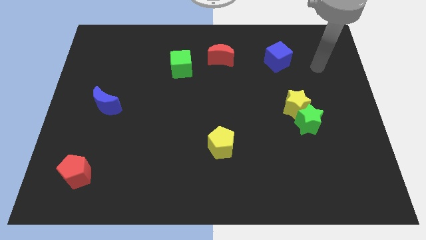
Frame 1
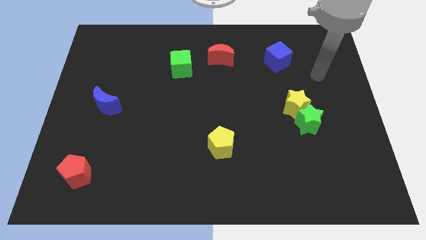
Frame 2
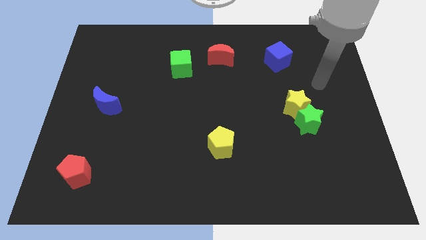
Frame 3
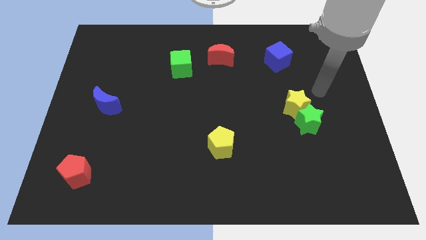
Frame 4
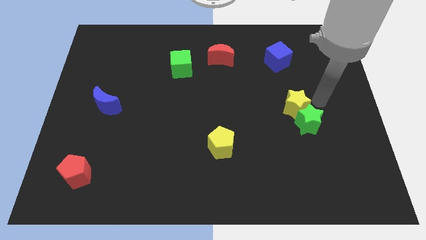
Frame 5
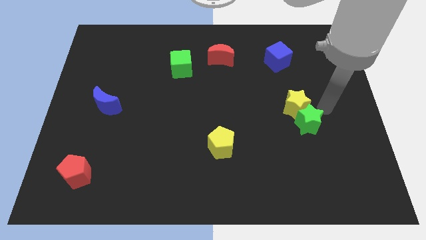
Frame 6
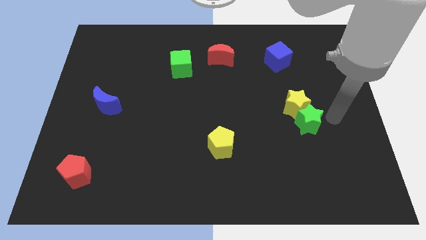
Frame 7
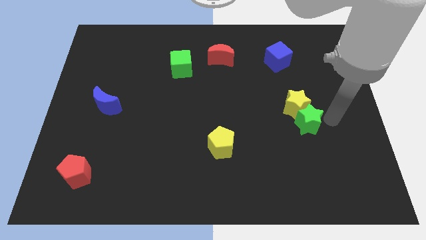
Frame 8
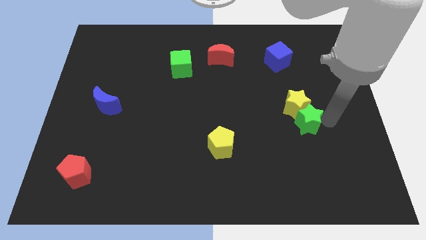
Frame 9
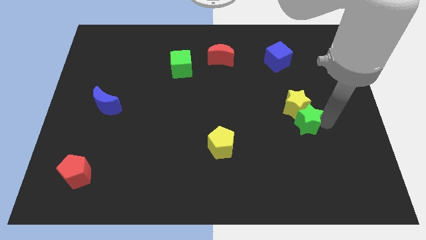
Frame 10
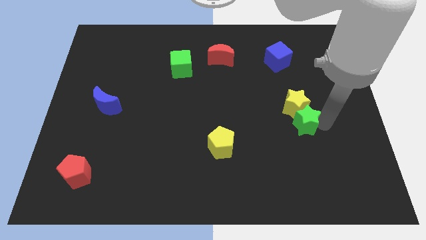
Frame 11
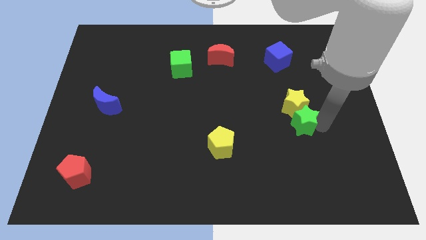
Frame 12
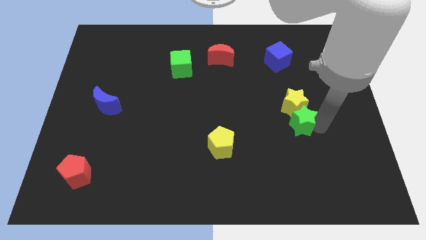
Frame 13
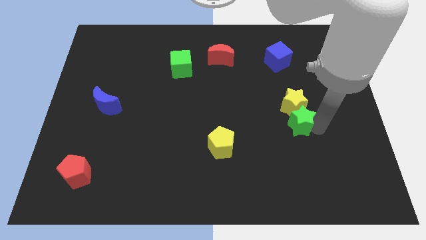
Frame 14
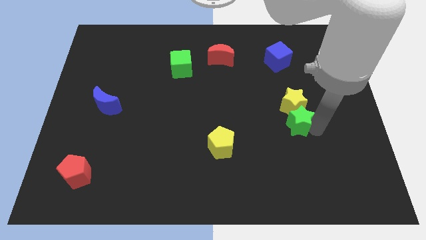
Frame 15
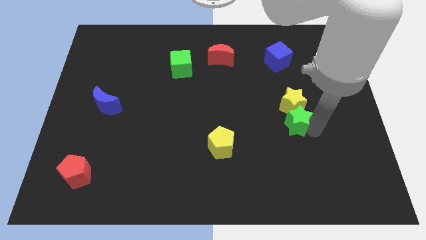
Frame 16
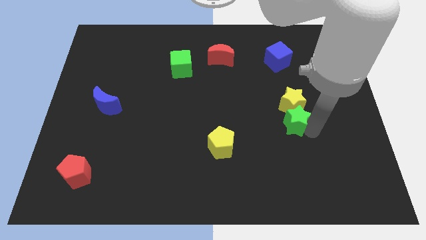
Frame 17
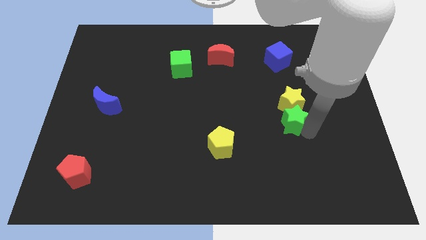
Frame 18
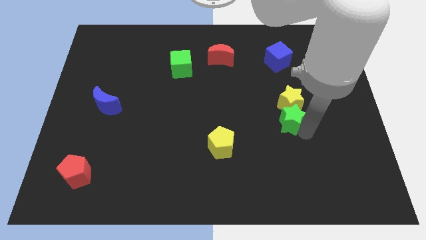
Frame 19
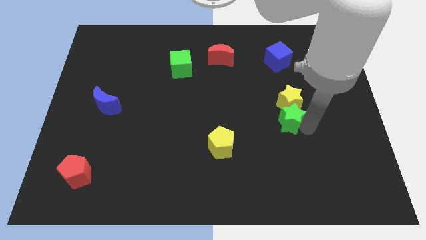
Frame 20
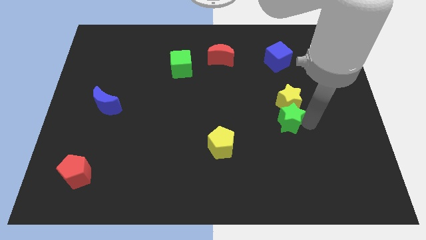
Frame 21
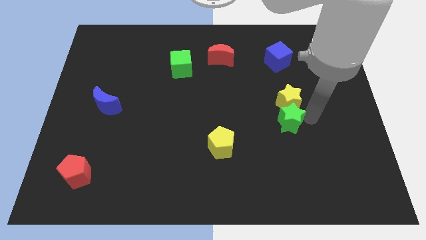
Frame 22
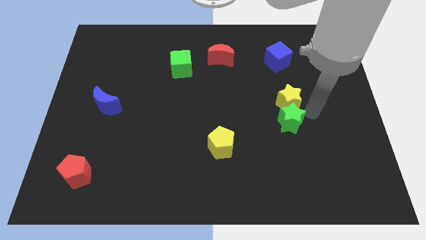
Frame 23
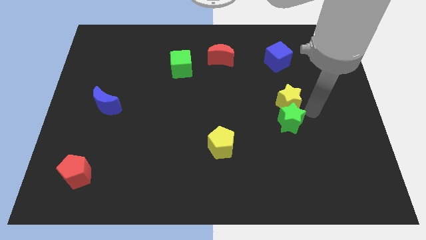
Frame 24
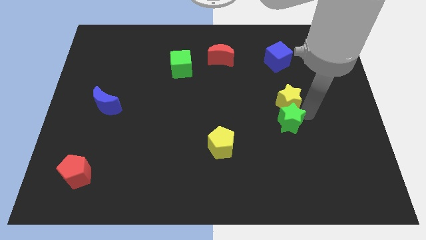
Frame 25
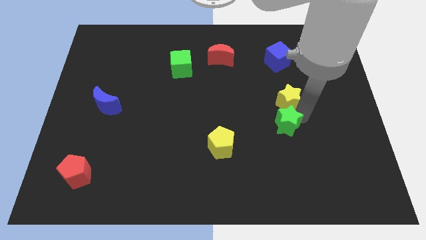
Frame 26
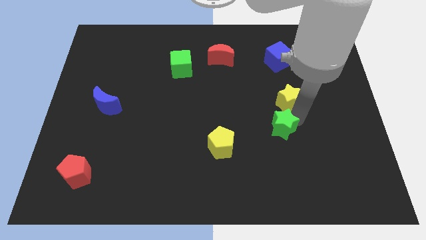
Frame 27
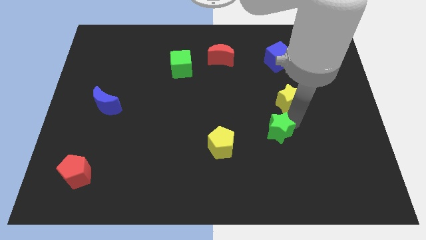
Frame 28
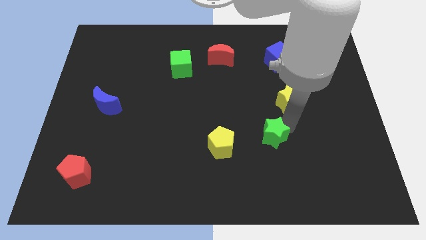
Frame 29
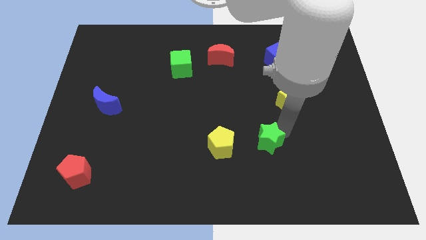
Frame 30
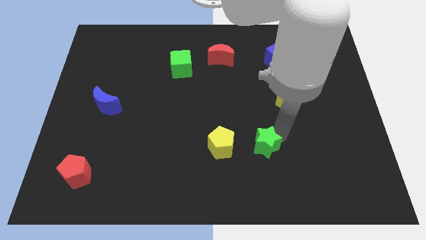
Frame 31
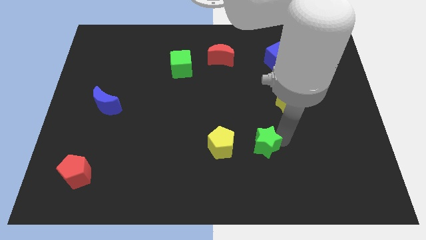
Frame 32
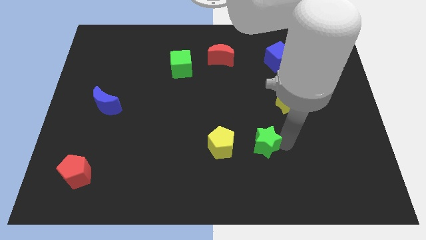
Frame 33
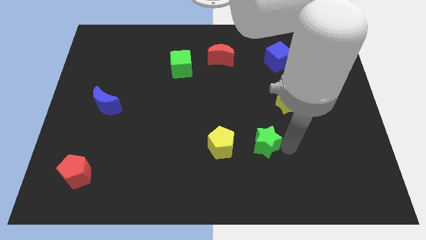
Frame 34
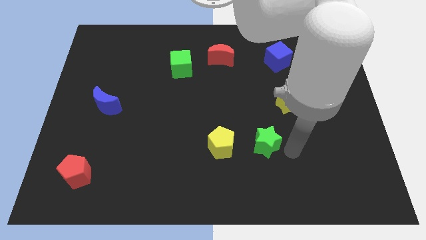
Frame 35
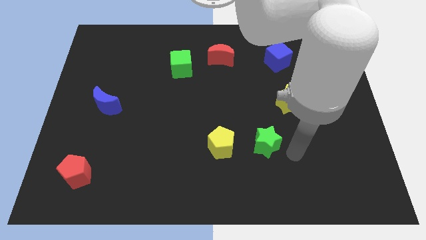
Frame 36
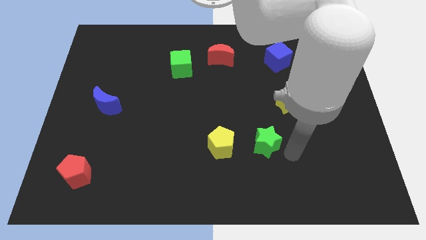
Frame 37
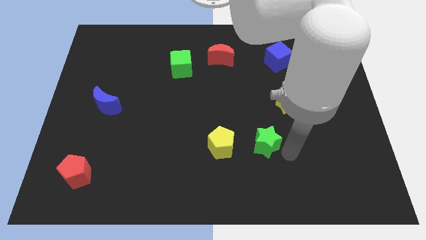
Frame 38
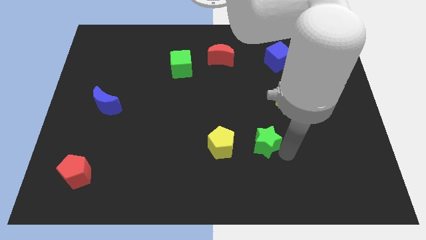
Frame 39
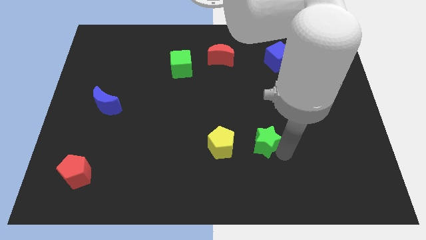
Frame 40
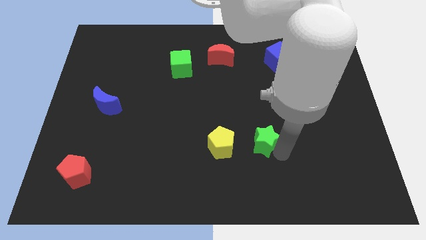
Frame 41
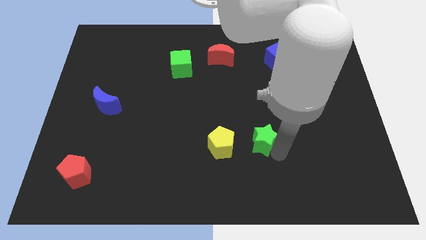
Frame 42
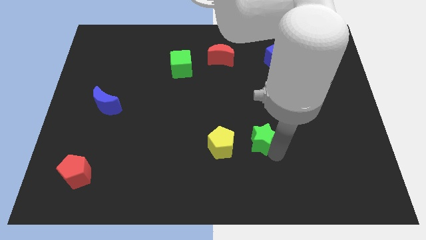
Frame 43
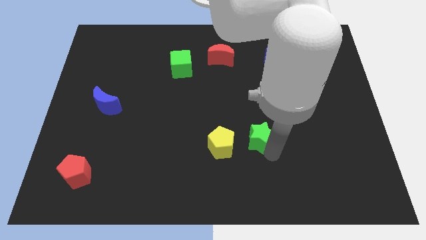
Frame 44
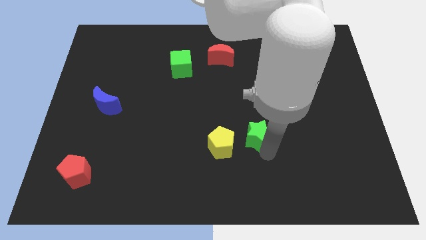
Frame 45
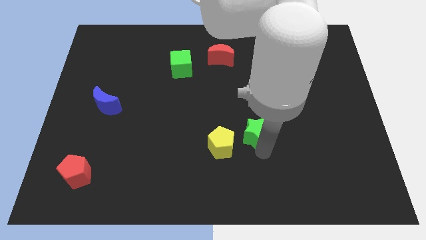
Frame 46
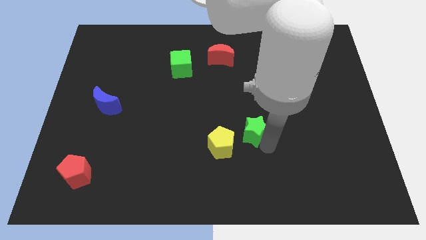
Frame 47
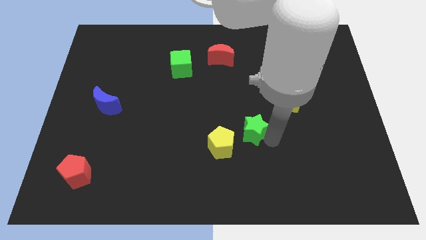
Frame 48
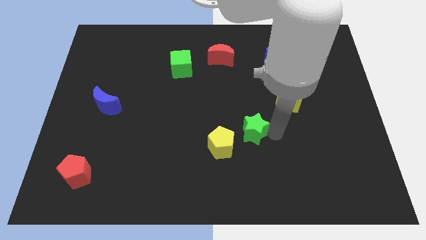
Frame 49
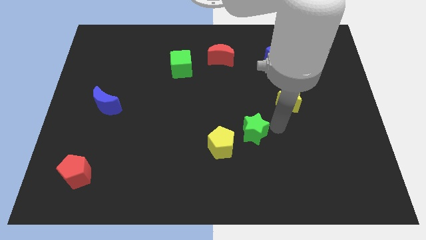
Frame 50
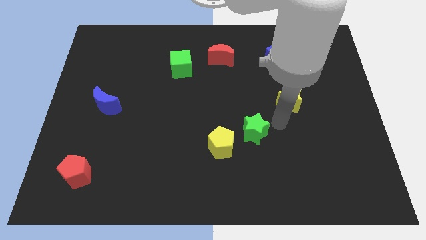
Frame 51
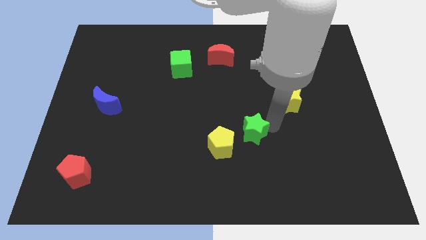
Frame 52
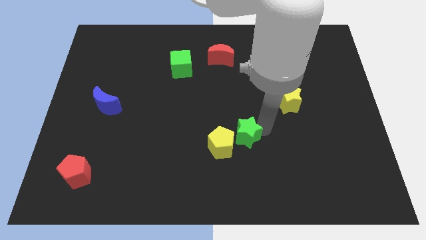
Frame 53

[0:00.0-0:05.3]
move the green star close to the yellow pentagon

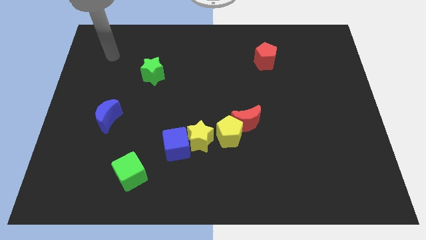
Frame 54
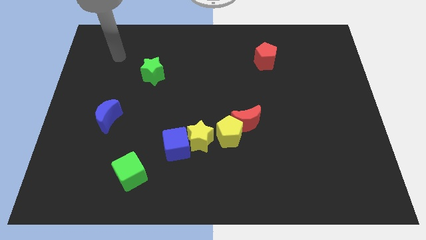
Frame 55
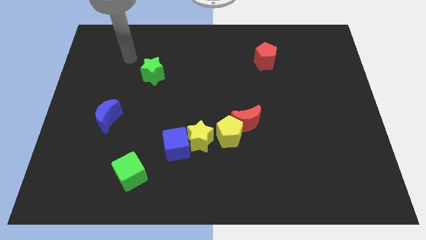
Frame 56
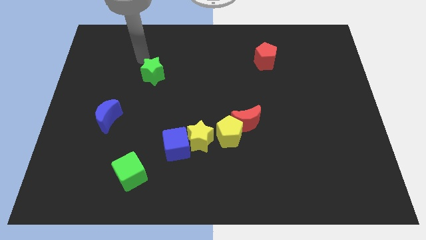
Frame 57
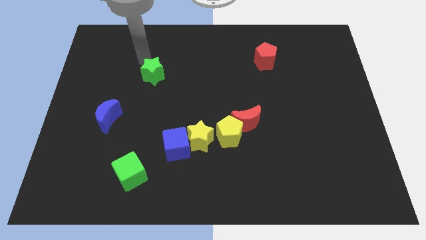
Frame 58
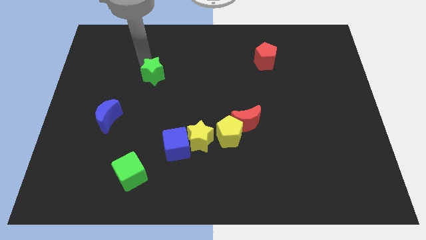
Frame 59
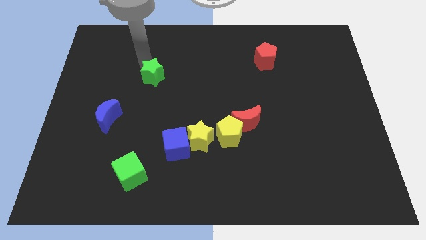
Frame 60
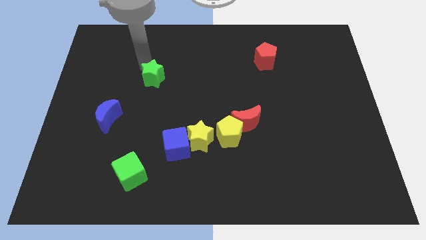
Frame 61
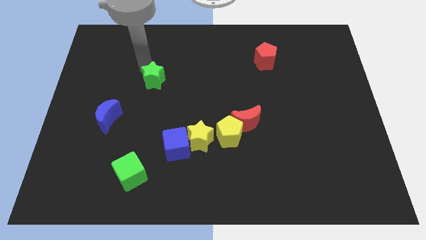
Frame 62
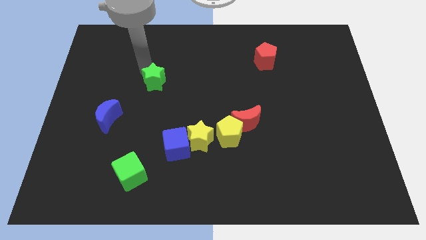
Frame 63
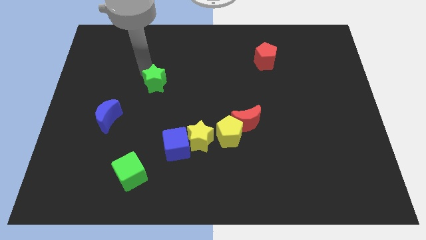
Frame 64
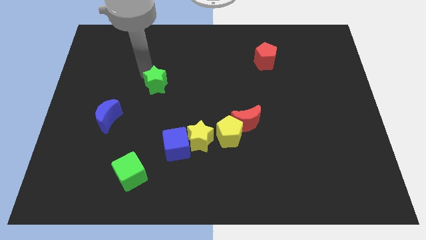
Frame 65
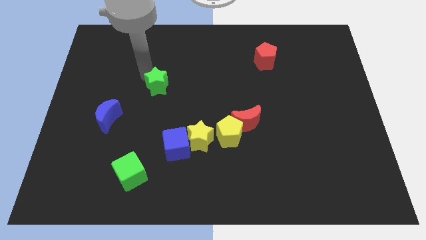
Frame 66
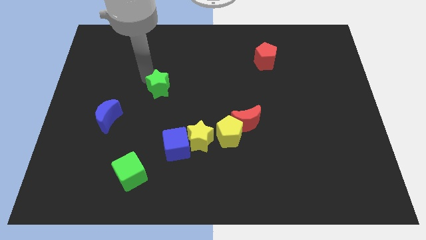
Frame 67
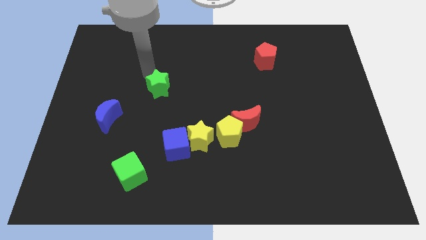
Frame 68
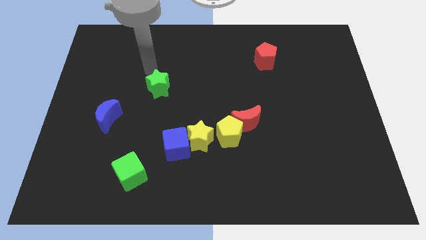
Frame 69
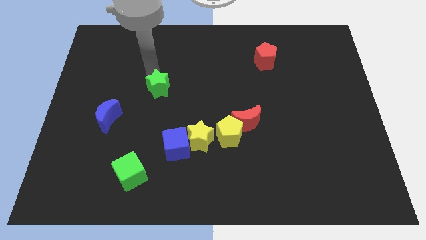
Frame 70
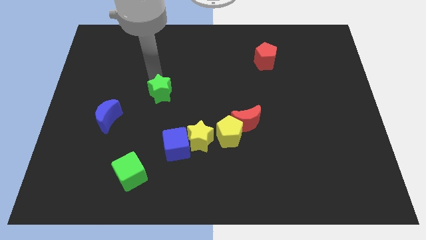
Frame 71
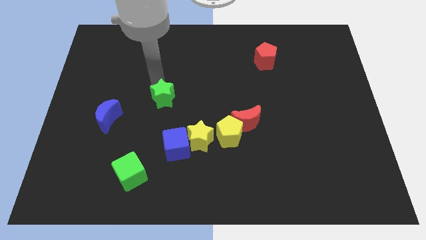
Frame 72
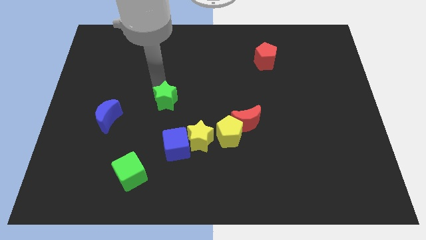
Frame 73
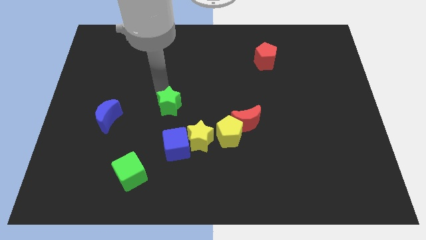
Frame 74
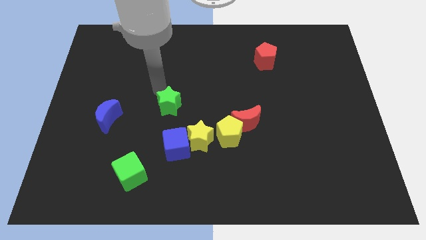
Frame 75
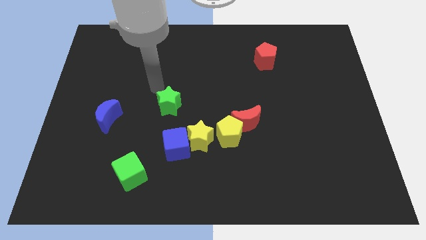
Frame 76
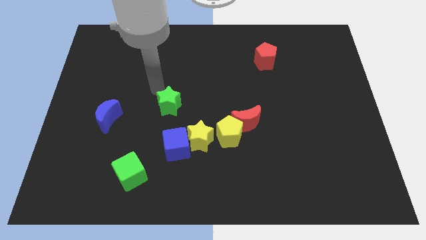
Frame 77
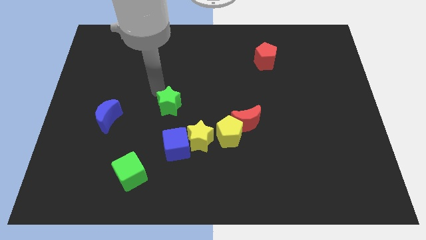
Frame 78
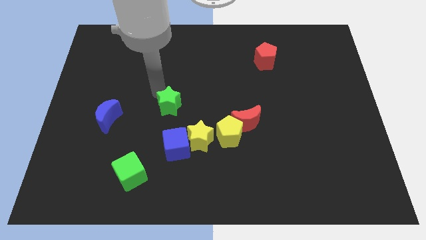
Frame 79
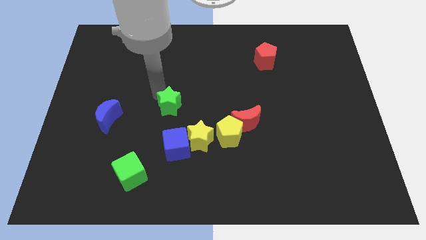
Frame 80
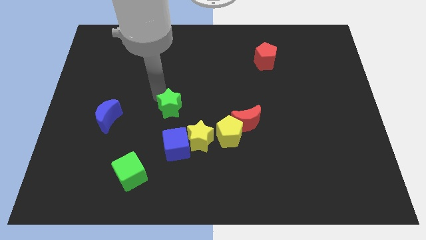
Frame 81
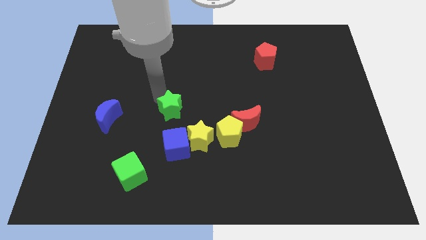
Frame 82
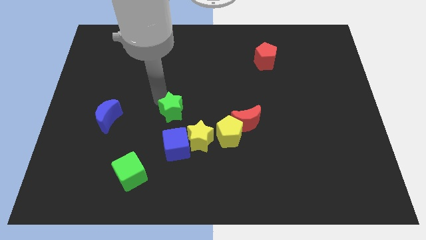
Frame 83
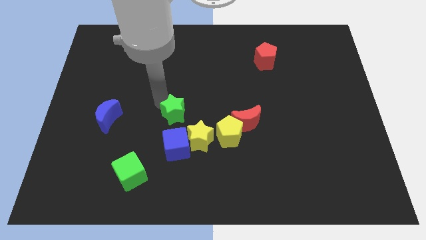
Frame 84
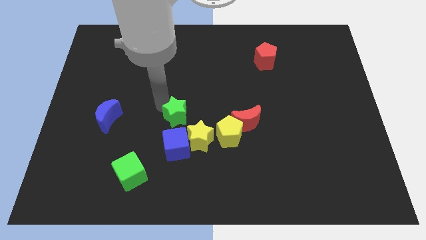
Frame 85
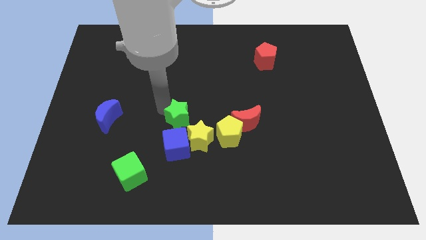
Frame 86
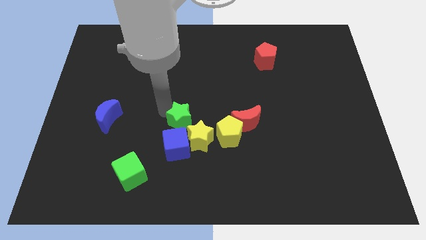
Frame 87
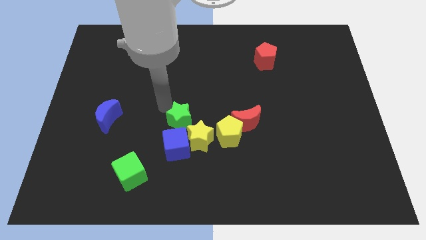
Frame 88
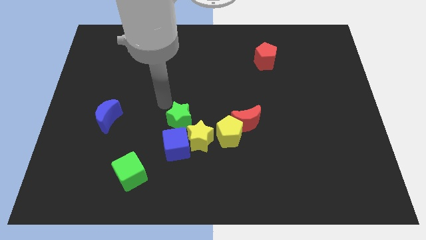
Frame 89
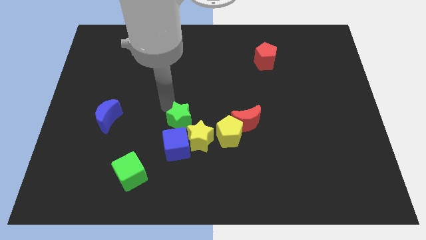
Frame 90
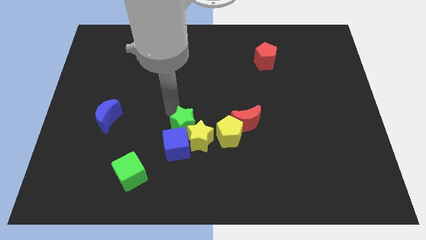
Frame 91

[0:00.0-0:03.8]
move the green star next to the yellow star
